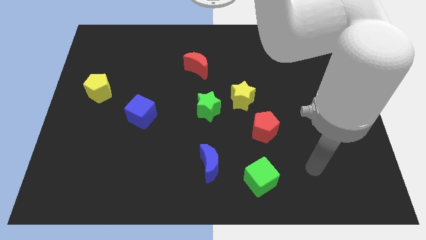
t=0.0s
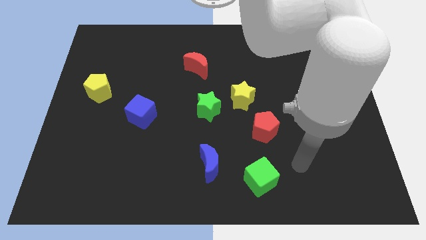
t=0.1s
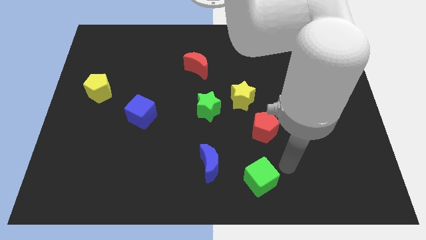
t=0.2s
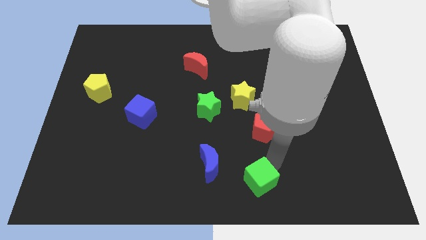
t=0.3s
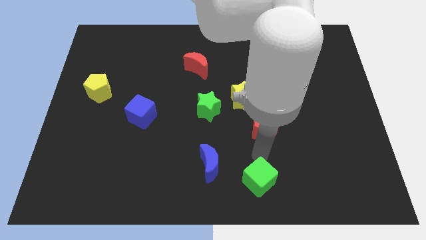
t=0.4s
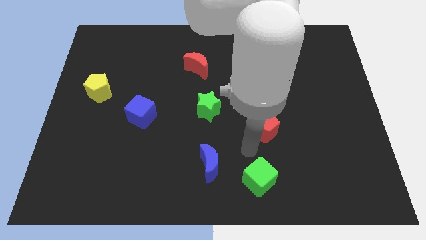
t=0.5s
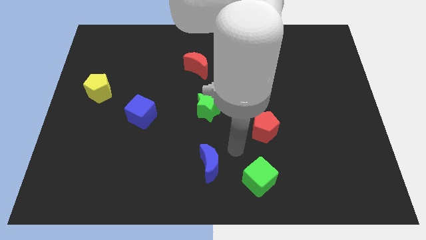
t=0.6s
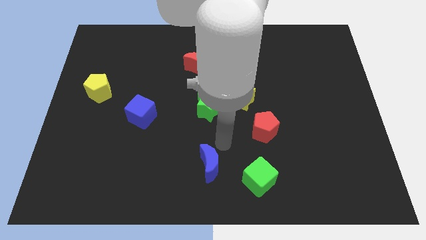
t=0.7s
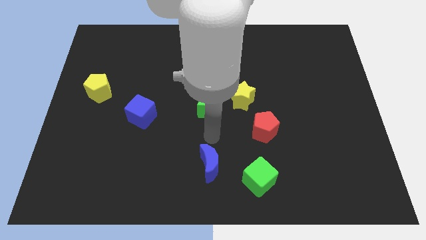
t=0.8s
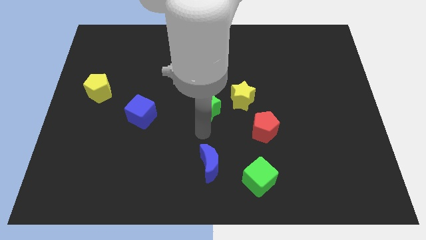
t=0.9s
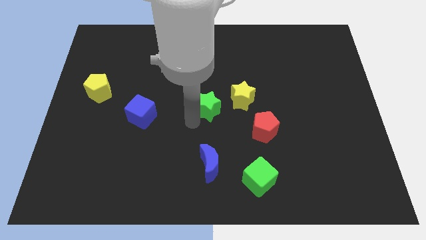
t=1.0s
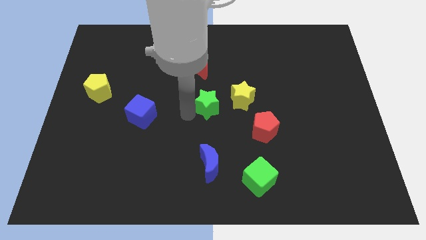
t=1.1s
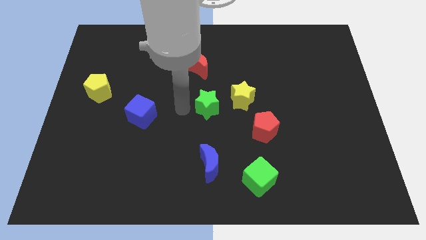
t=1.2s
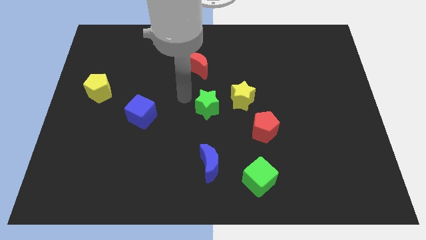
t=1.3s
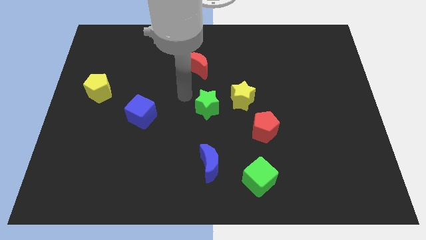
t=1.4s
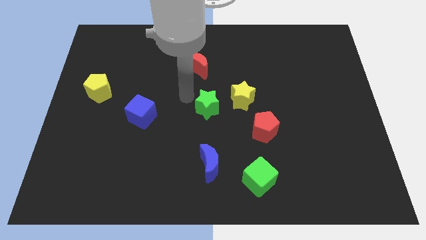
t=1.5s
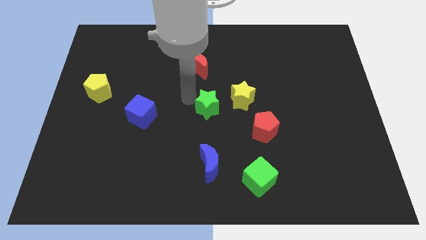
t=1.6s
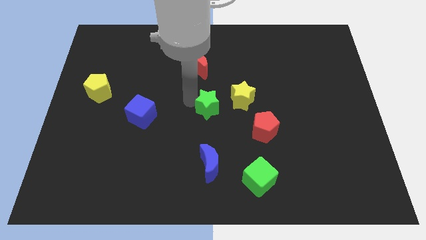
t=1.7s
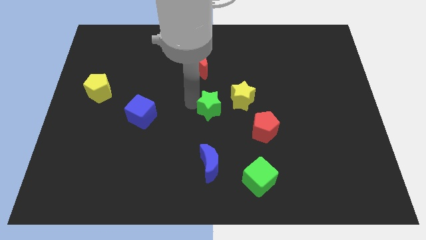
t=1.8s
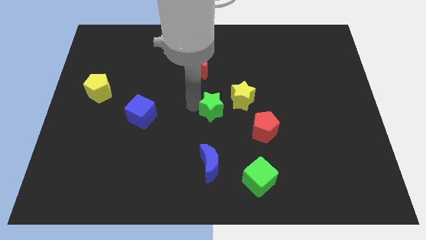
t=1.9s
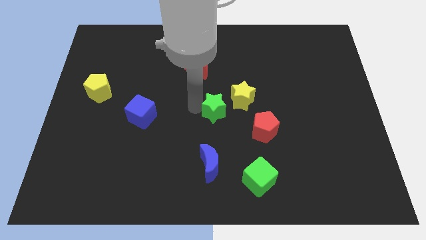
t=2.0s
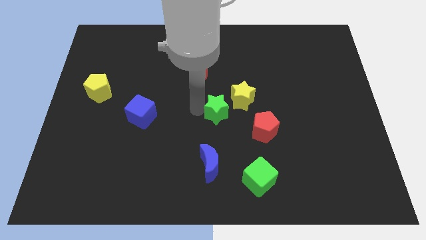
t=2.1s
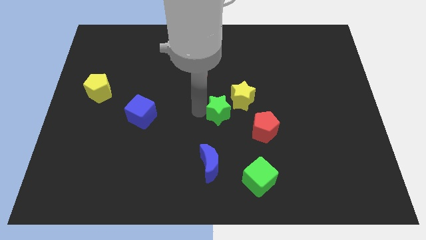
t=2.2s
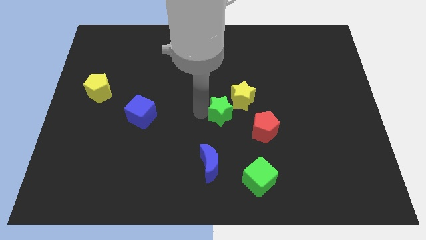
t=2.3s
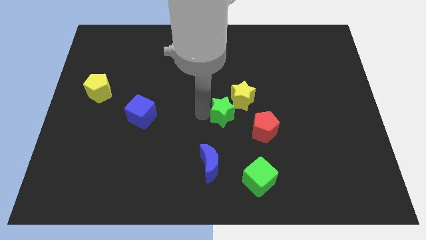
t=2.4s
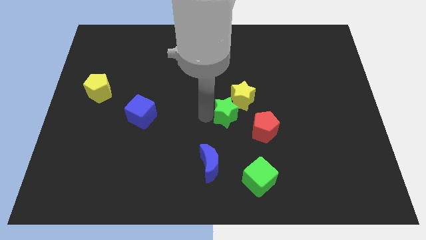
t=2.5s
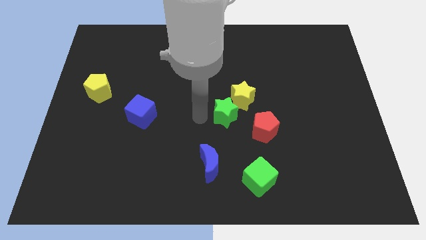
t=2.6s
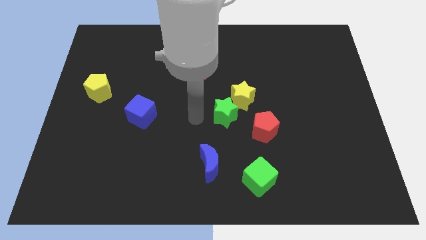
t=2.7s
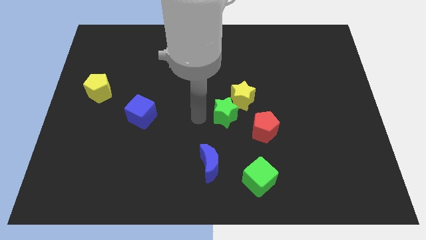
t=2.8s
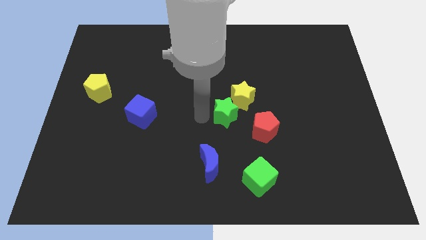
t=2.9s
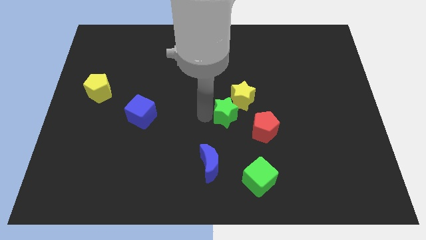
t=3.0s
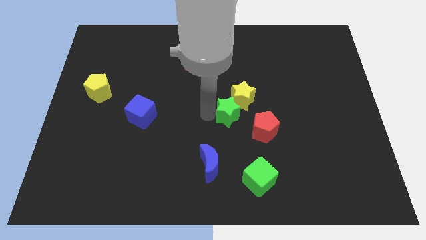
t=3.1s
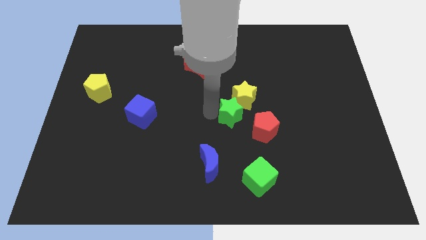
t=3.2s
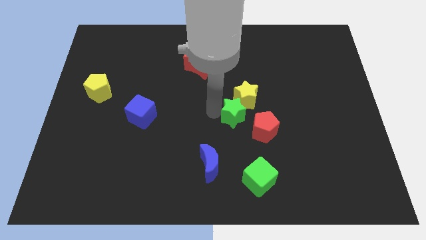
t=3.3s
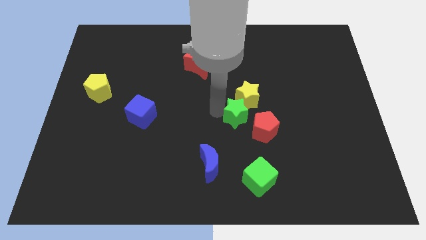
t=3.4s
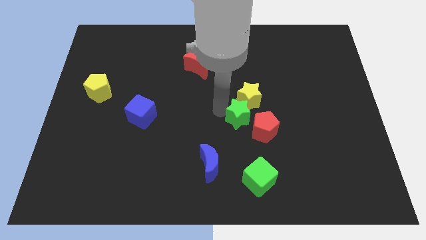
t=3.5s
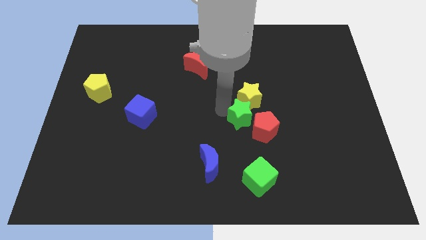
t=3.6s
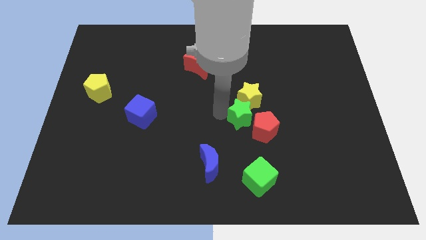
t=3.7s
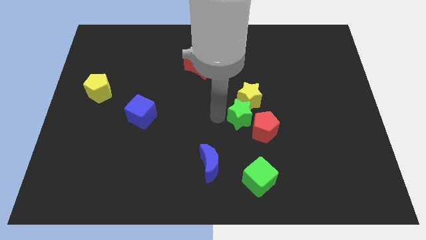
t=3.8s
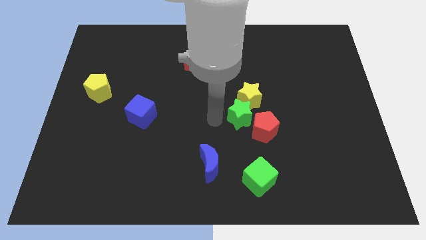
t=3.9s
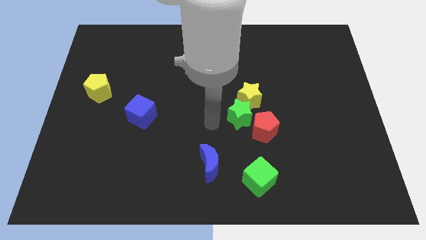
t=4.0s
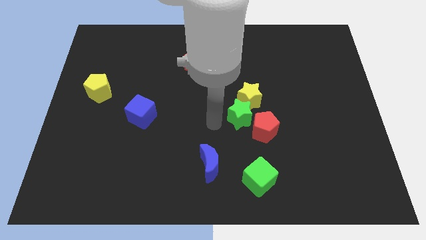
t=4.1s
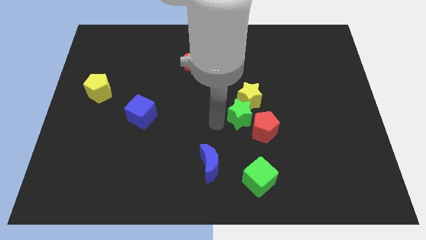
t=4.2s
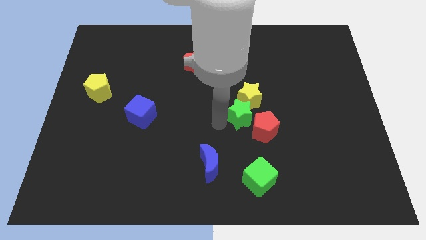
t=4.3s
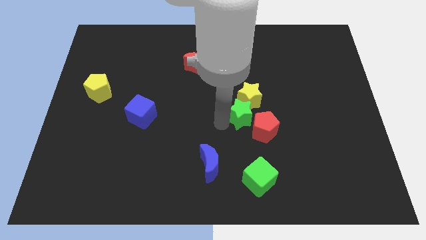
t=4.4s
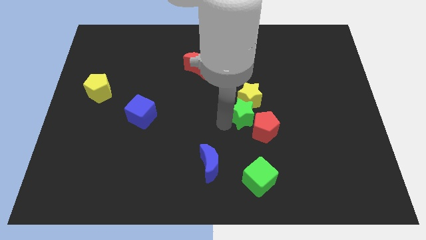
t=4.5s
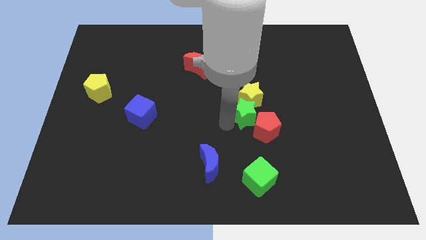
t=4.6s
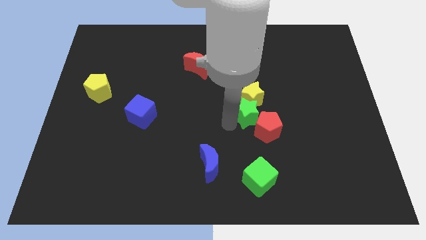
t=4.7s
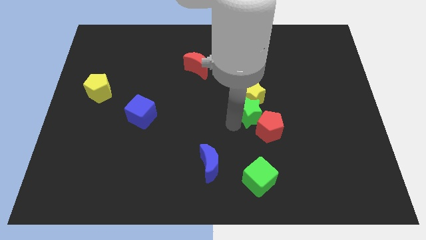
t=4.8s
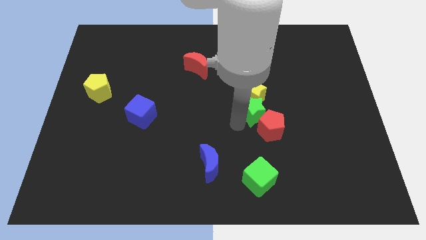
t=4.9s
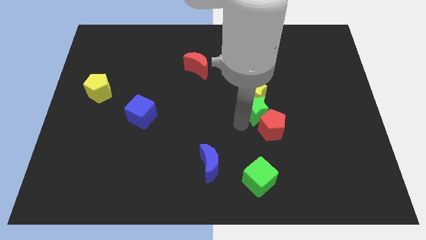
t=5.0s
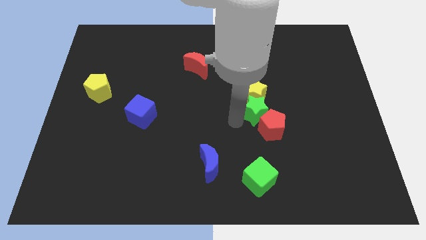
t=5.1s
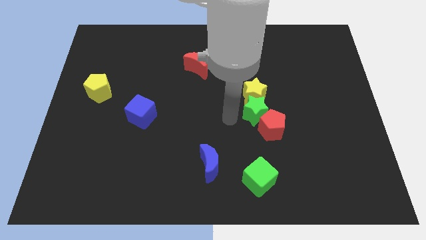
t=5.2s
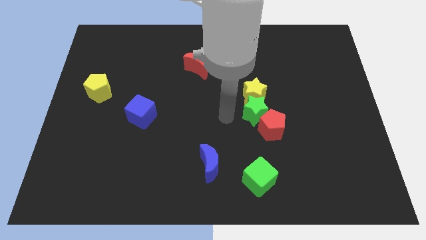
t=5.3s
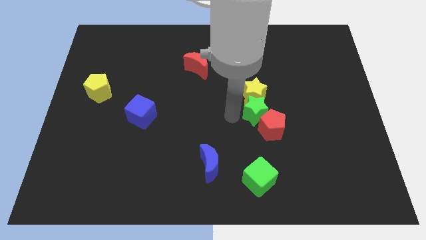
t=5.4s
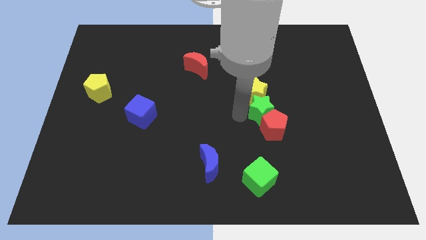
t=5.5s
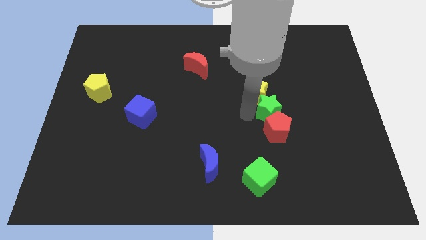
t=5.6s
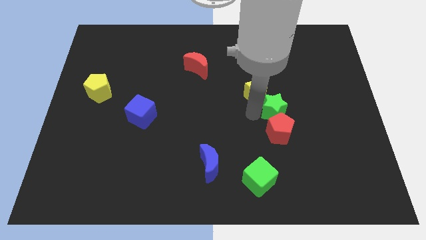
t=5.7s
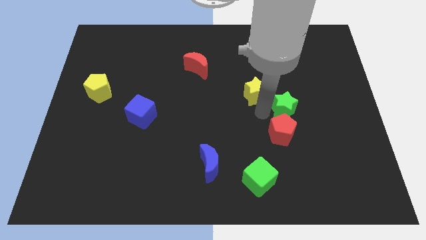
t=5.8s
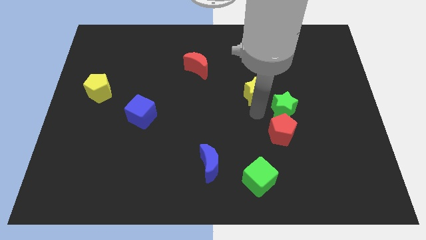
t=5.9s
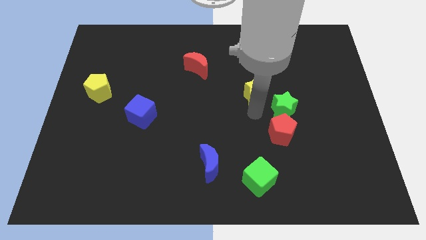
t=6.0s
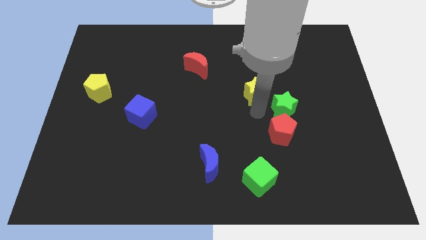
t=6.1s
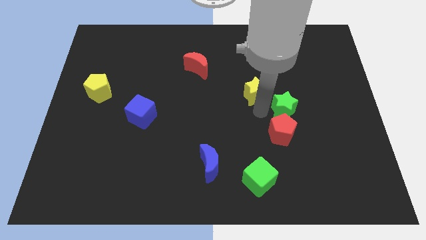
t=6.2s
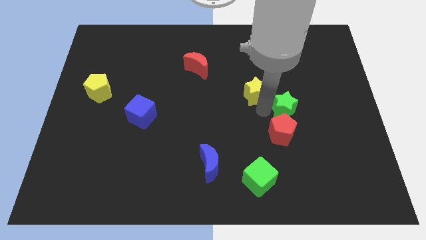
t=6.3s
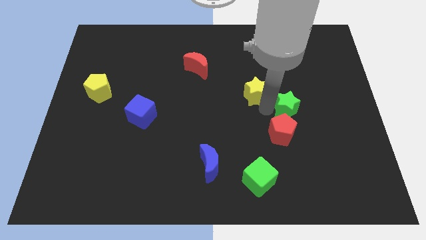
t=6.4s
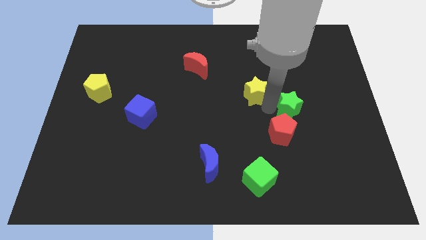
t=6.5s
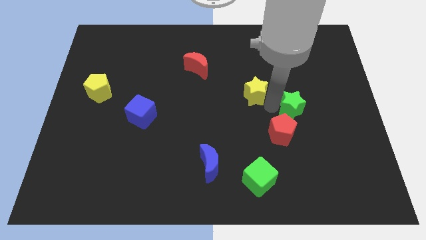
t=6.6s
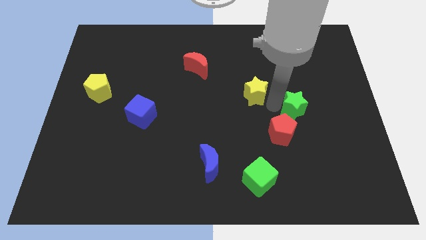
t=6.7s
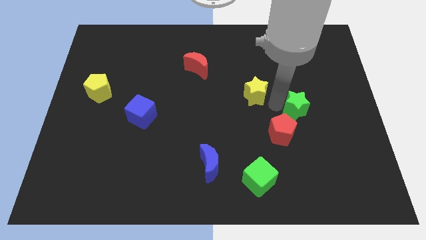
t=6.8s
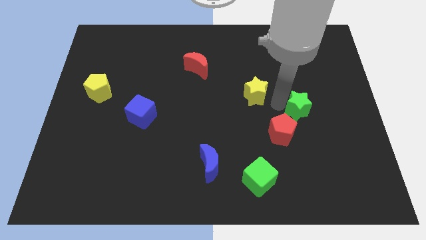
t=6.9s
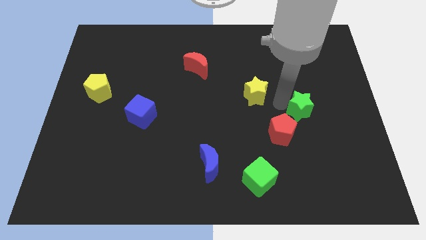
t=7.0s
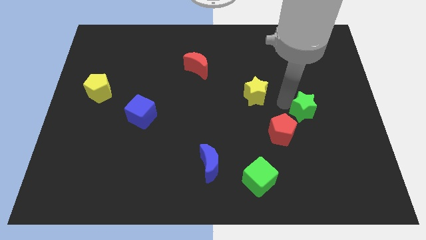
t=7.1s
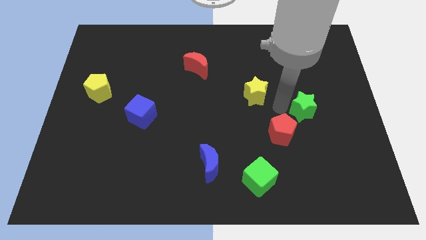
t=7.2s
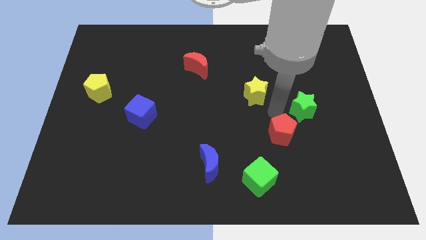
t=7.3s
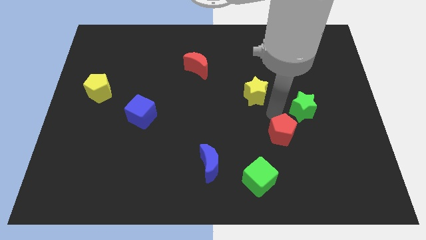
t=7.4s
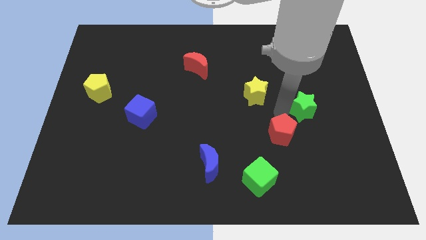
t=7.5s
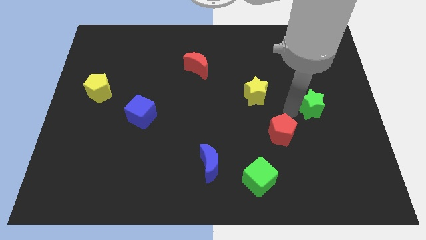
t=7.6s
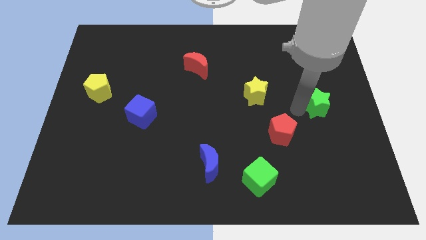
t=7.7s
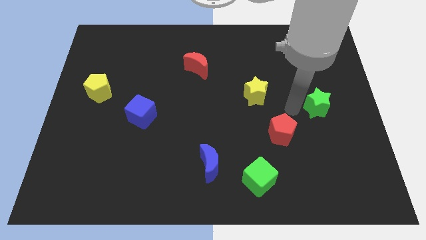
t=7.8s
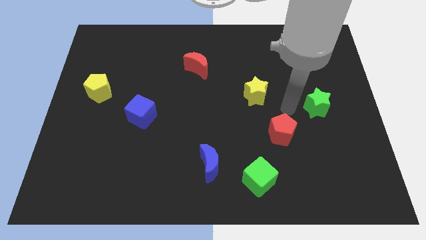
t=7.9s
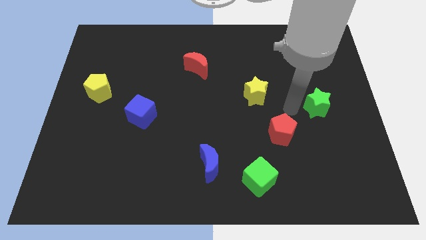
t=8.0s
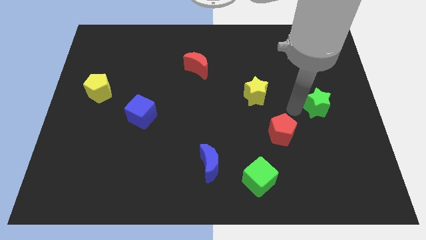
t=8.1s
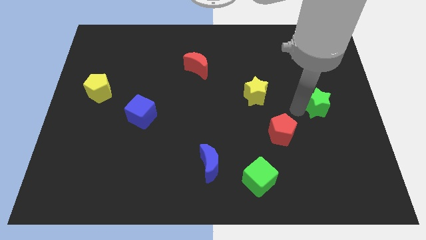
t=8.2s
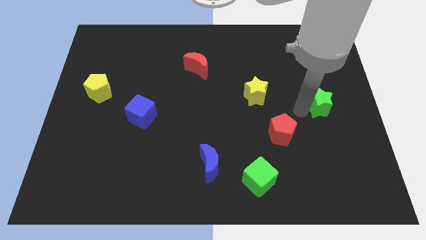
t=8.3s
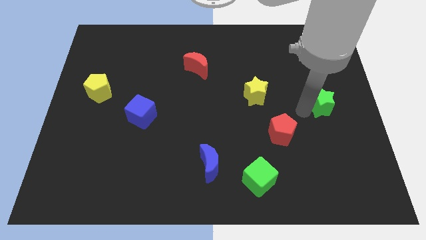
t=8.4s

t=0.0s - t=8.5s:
slide the green star to the center right
